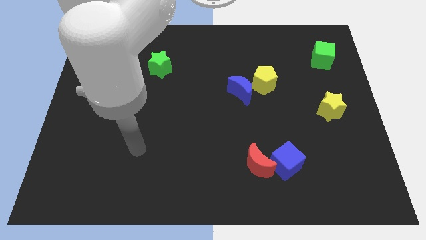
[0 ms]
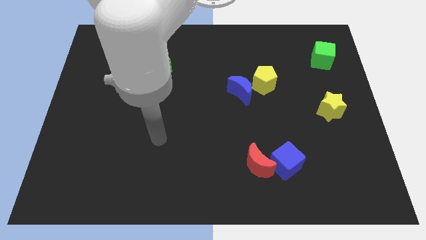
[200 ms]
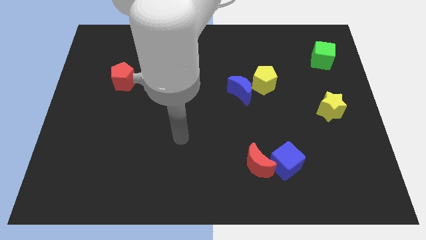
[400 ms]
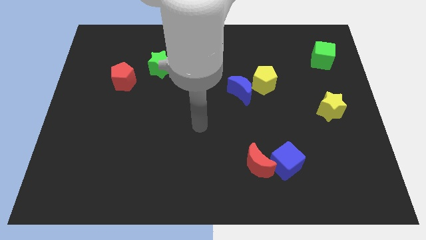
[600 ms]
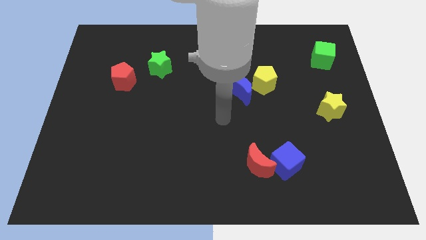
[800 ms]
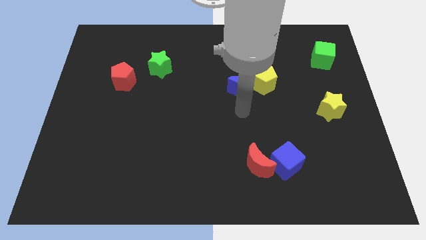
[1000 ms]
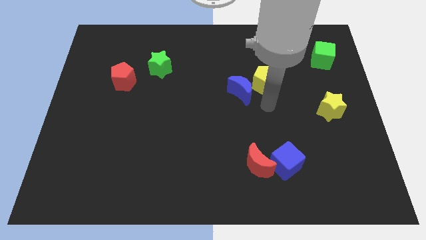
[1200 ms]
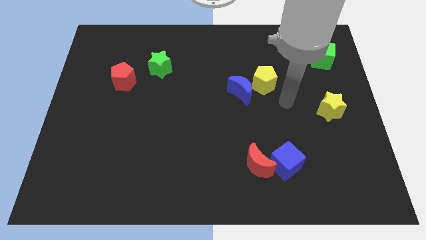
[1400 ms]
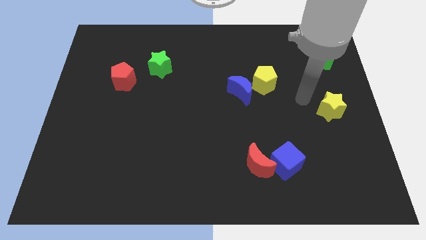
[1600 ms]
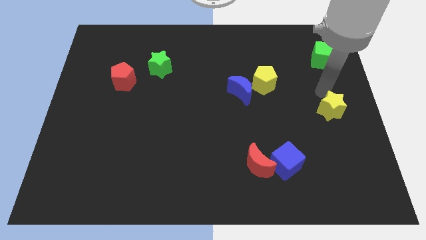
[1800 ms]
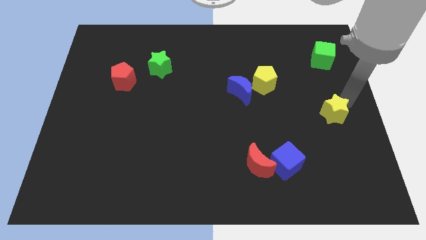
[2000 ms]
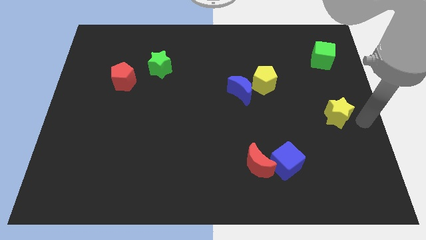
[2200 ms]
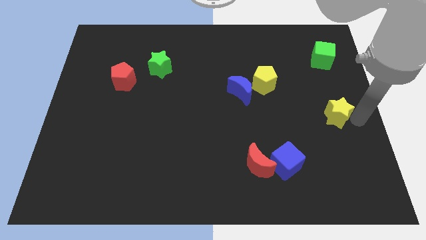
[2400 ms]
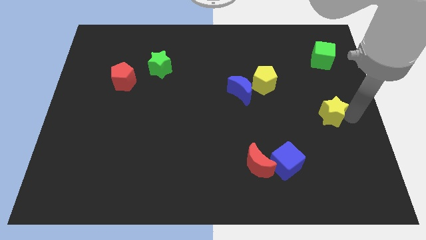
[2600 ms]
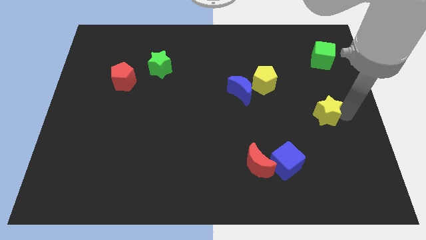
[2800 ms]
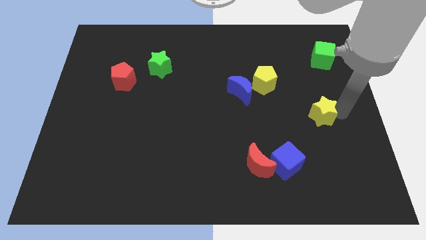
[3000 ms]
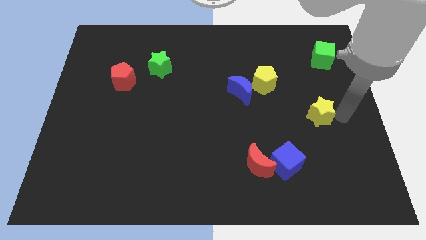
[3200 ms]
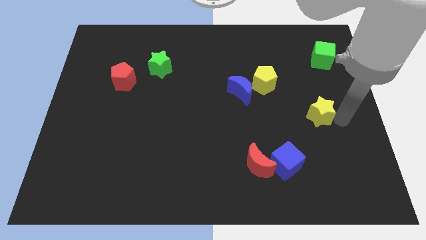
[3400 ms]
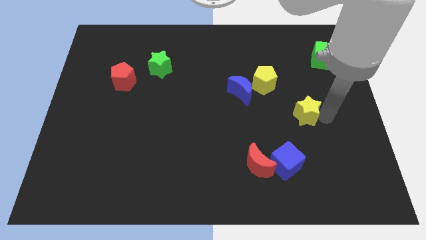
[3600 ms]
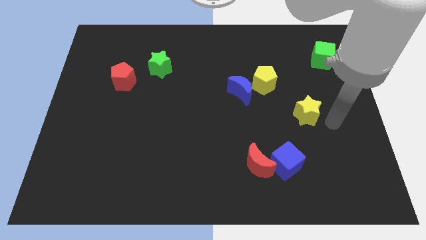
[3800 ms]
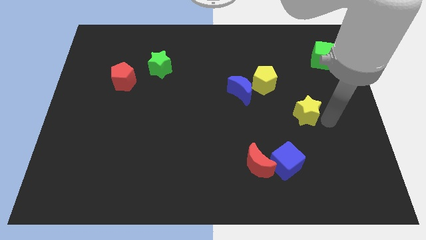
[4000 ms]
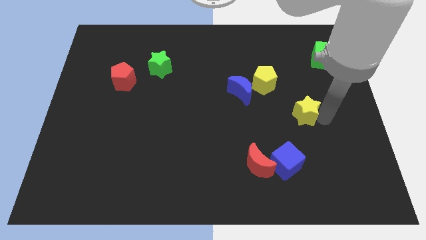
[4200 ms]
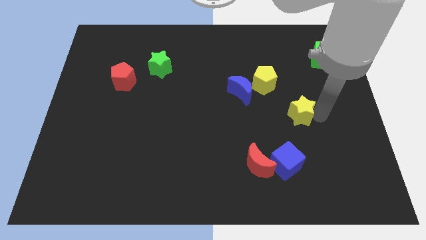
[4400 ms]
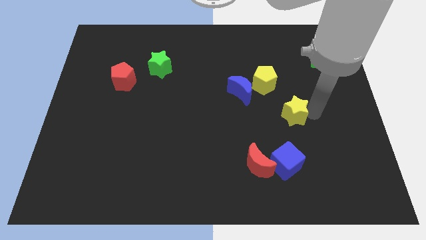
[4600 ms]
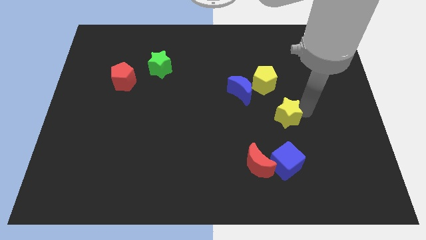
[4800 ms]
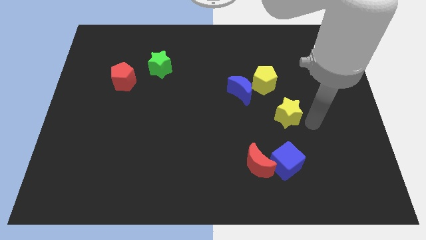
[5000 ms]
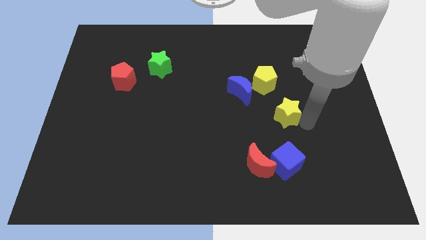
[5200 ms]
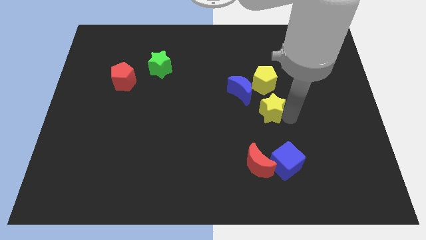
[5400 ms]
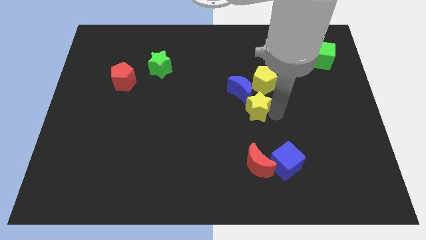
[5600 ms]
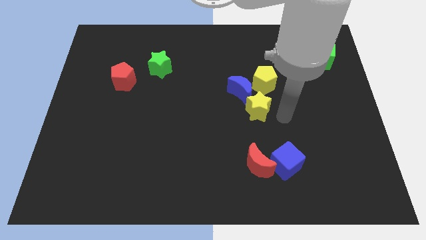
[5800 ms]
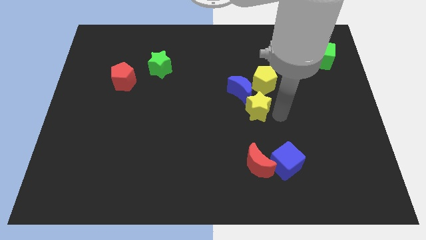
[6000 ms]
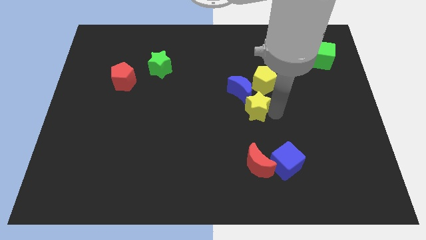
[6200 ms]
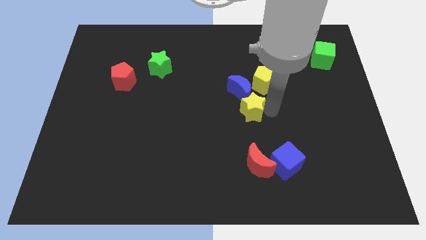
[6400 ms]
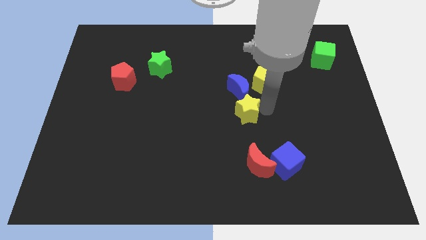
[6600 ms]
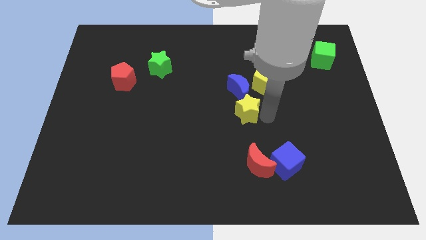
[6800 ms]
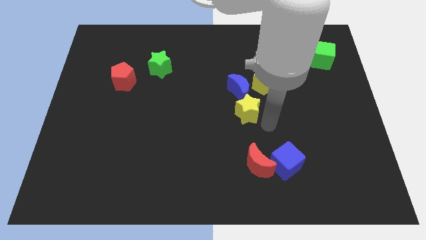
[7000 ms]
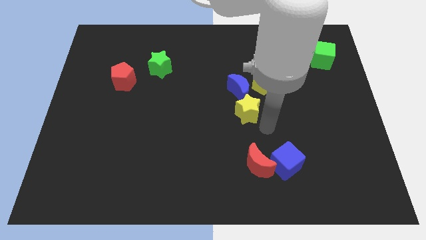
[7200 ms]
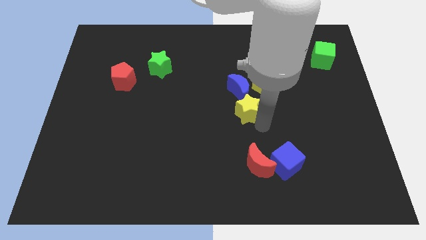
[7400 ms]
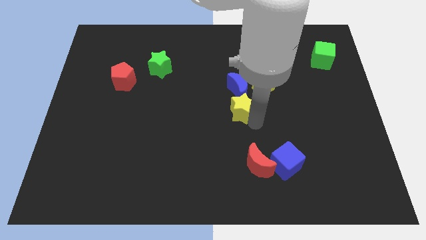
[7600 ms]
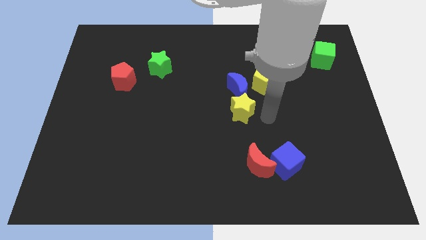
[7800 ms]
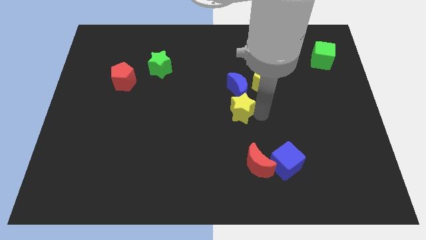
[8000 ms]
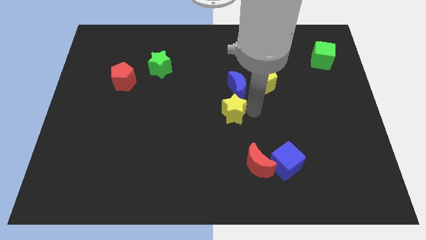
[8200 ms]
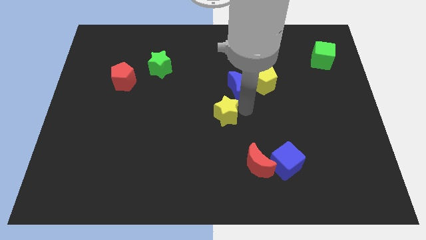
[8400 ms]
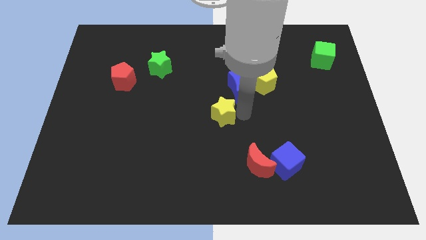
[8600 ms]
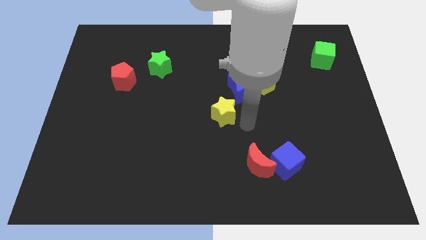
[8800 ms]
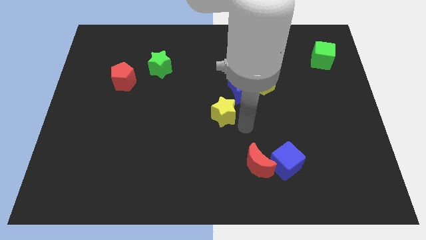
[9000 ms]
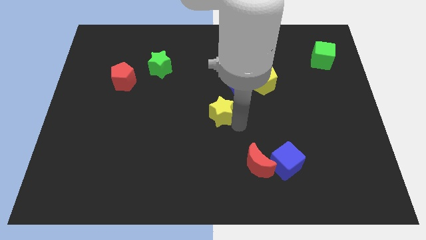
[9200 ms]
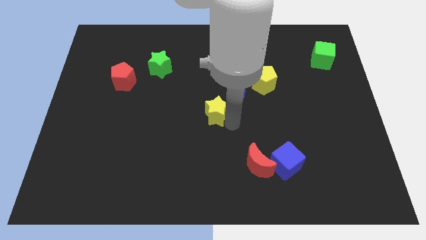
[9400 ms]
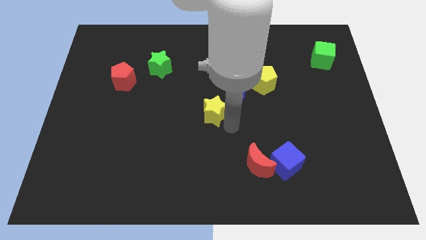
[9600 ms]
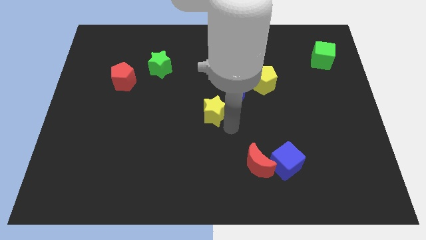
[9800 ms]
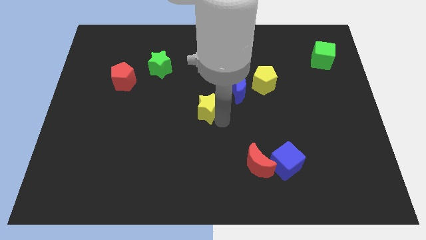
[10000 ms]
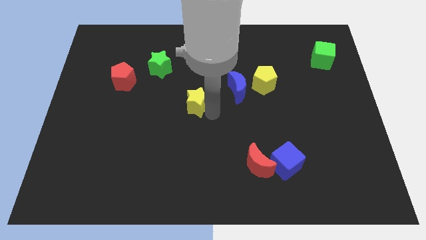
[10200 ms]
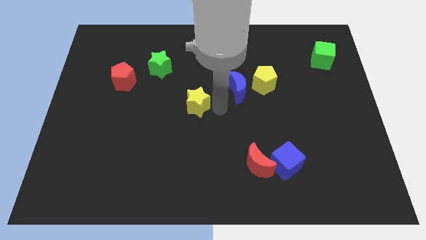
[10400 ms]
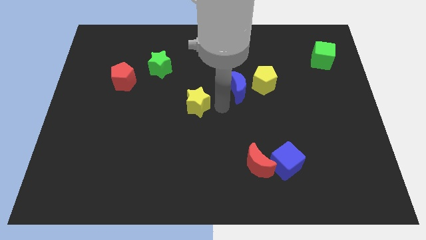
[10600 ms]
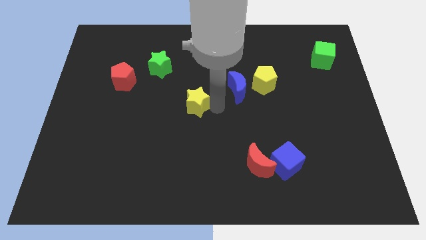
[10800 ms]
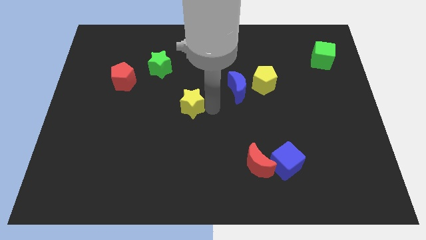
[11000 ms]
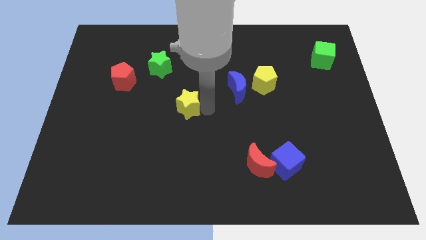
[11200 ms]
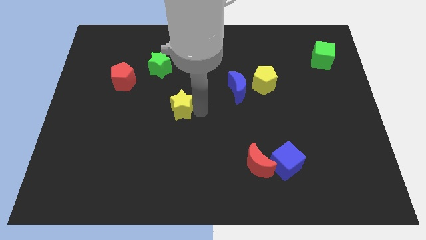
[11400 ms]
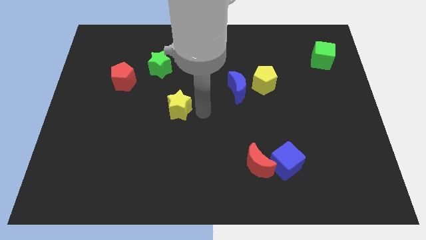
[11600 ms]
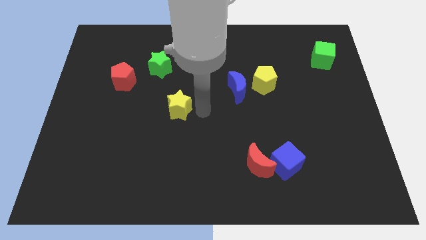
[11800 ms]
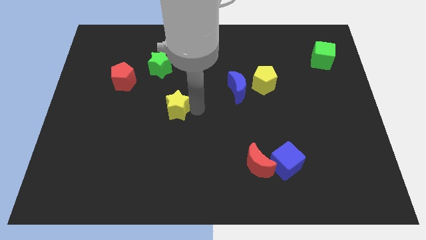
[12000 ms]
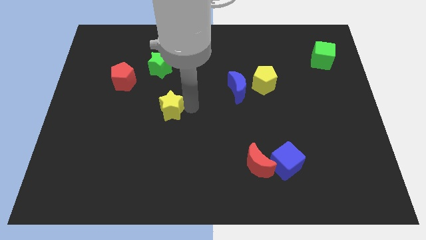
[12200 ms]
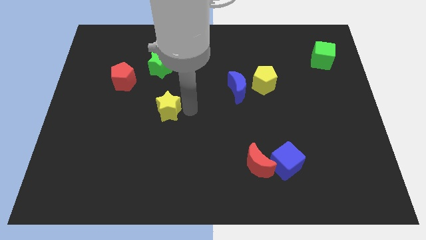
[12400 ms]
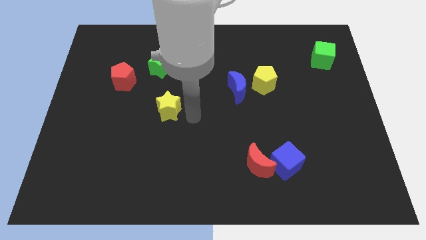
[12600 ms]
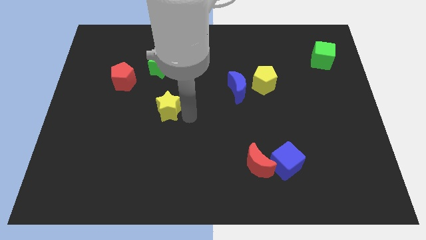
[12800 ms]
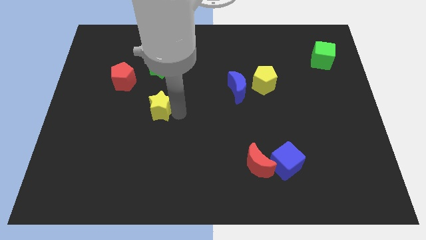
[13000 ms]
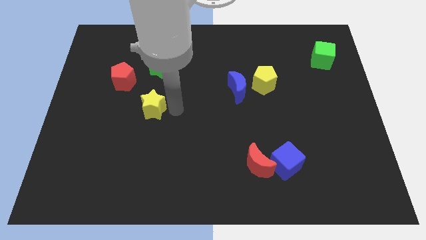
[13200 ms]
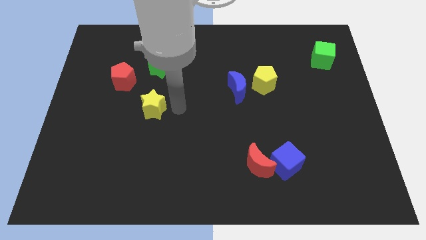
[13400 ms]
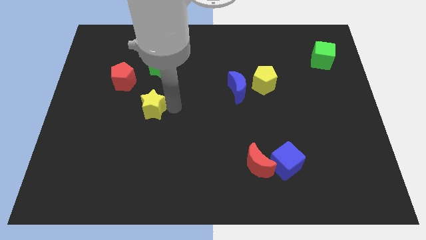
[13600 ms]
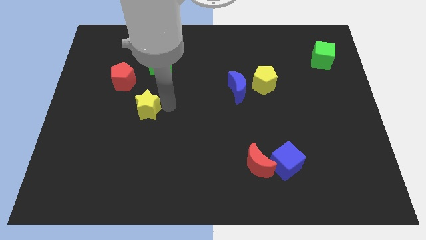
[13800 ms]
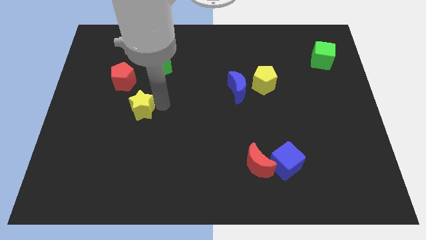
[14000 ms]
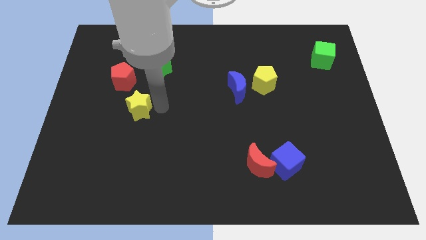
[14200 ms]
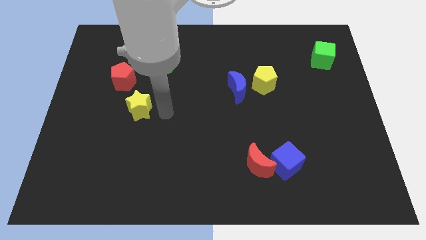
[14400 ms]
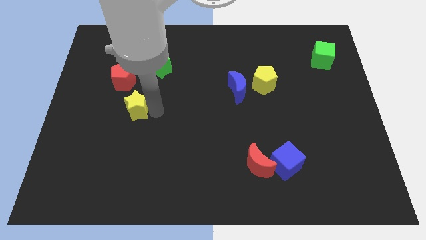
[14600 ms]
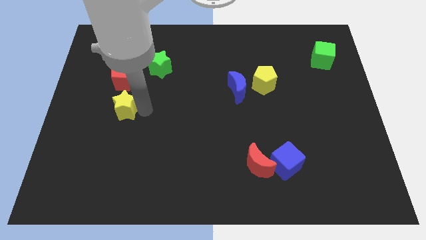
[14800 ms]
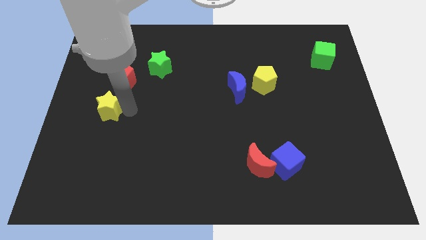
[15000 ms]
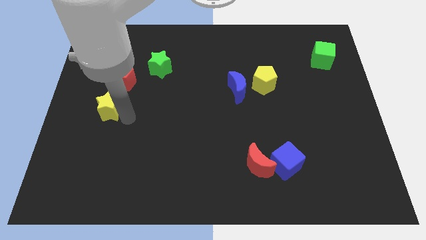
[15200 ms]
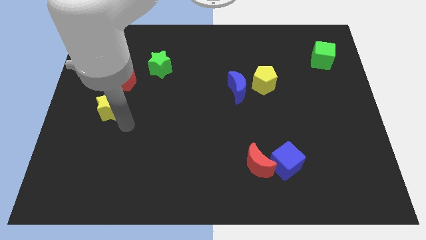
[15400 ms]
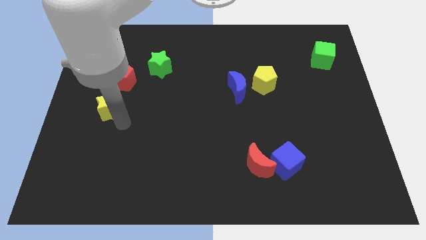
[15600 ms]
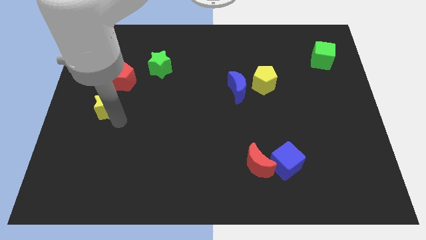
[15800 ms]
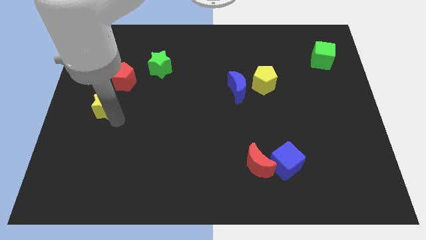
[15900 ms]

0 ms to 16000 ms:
push the yellow star to the left side
